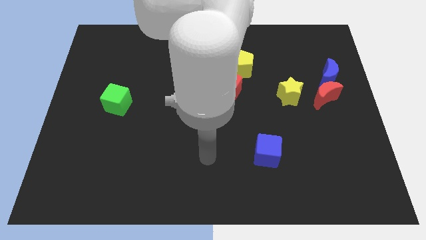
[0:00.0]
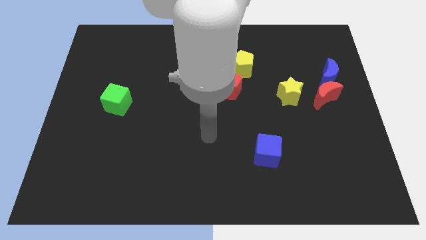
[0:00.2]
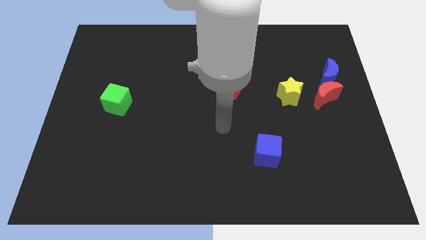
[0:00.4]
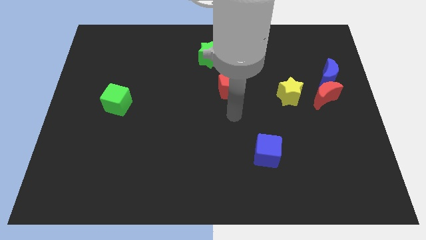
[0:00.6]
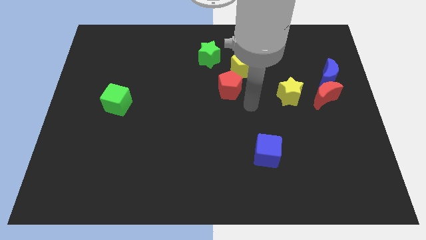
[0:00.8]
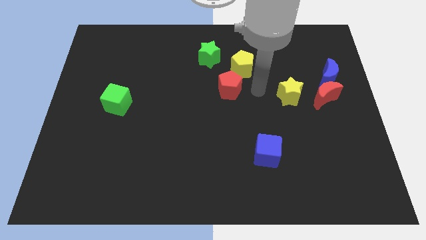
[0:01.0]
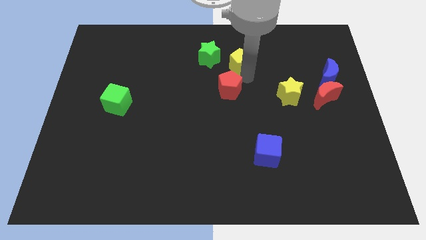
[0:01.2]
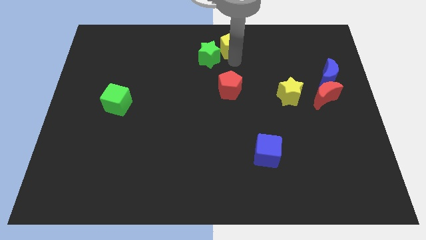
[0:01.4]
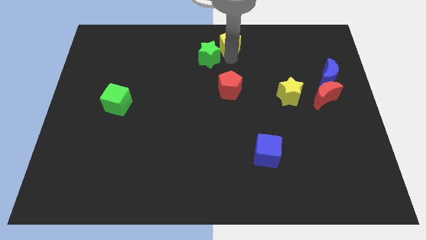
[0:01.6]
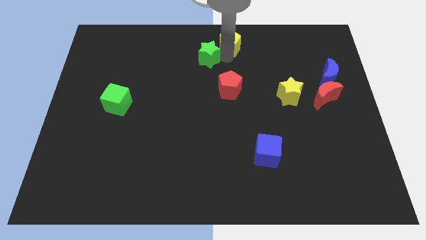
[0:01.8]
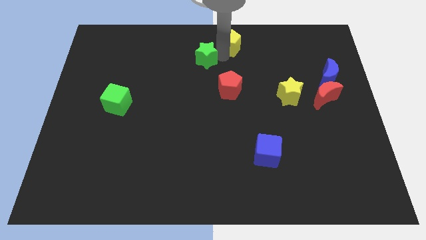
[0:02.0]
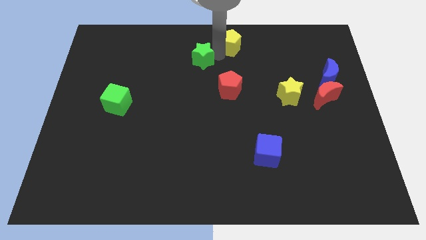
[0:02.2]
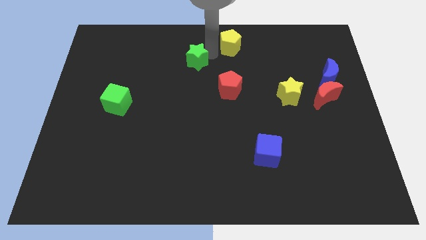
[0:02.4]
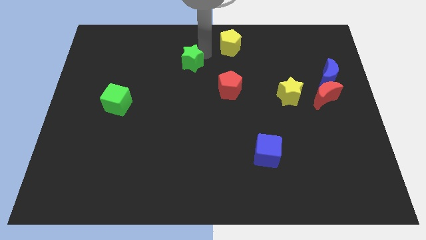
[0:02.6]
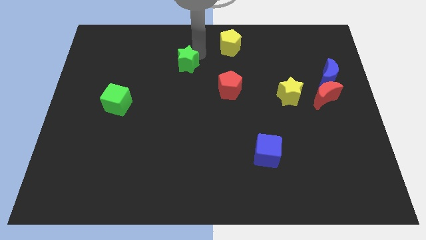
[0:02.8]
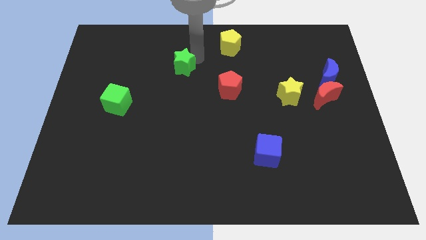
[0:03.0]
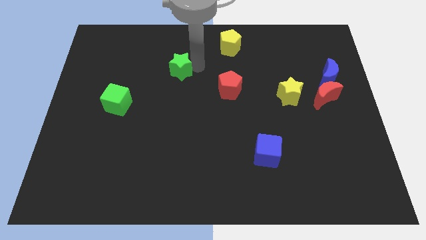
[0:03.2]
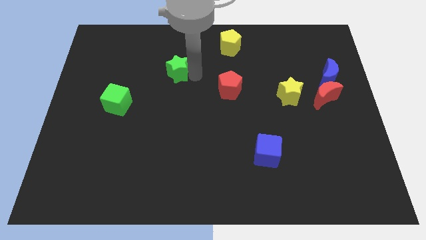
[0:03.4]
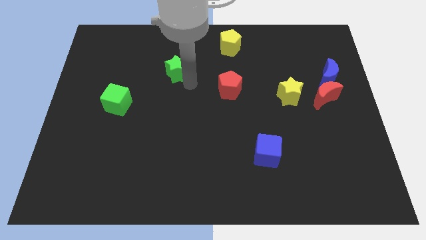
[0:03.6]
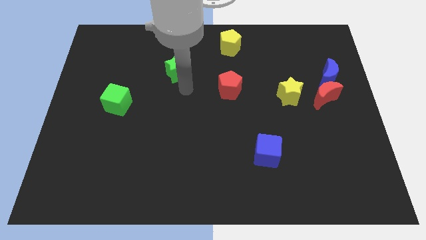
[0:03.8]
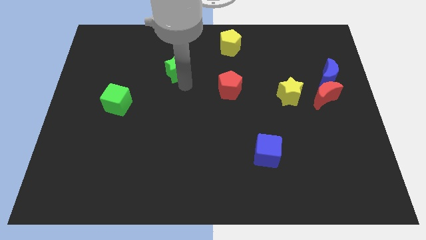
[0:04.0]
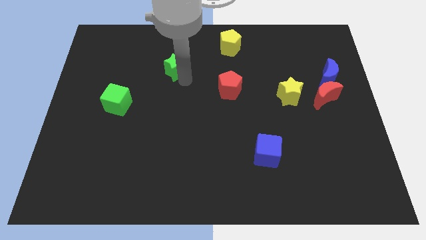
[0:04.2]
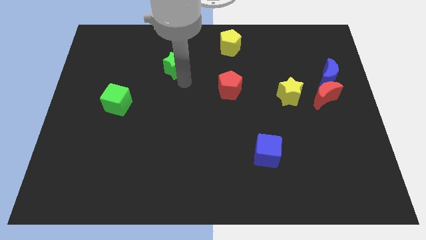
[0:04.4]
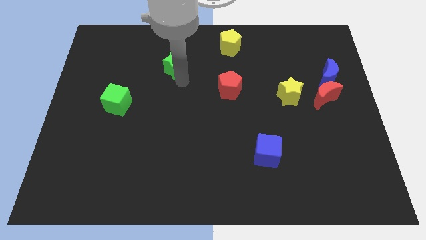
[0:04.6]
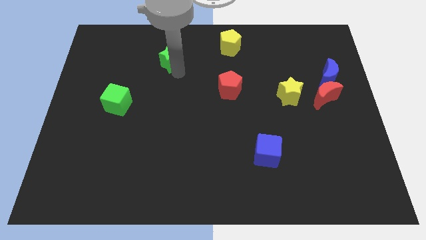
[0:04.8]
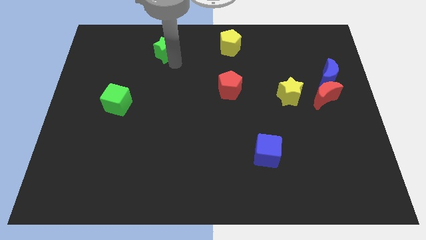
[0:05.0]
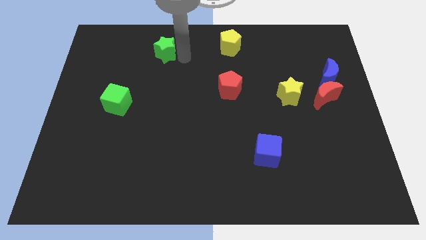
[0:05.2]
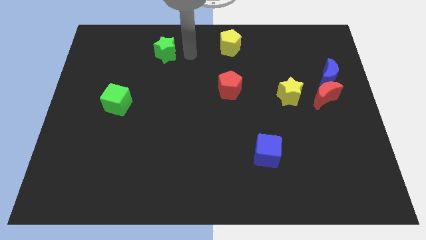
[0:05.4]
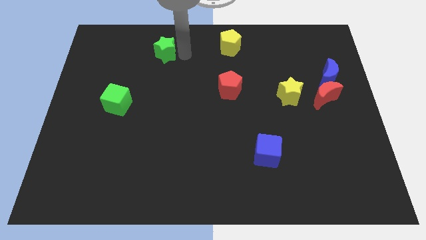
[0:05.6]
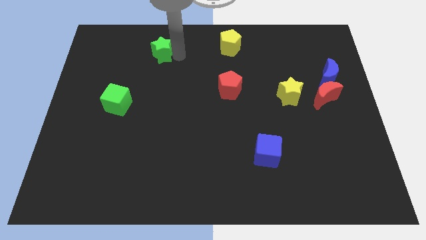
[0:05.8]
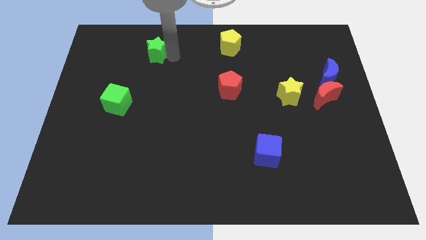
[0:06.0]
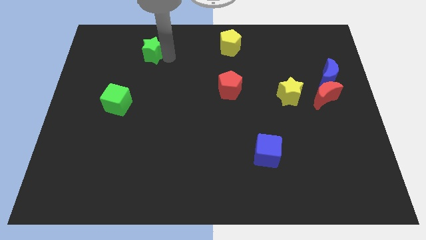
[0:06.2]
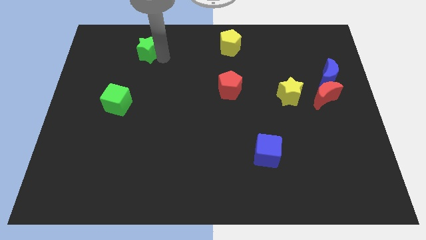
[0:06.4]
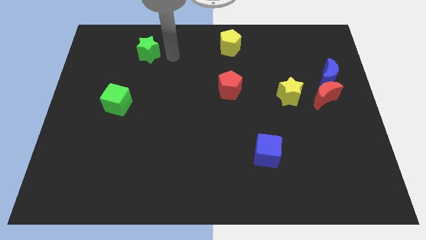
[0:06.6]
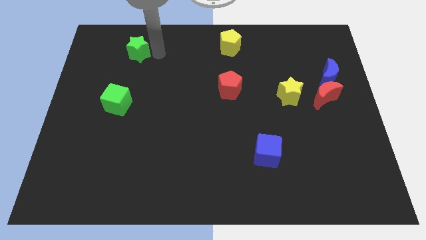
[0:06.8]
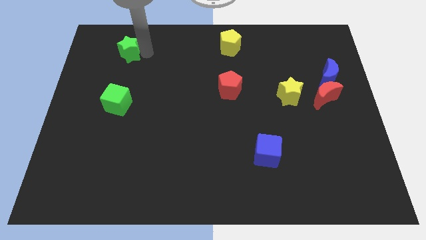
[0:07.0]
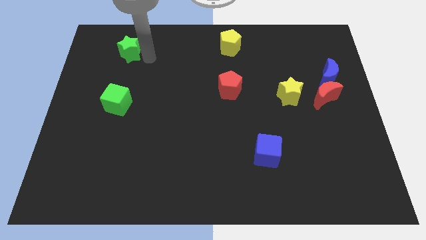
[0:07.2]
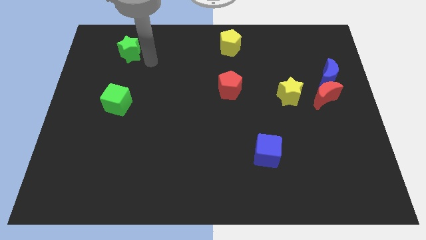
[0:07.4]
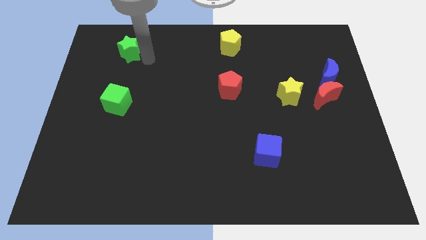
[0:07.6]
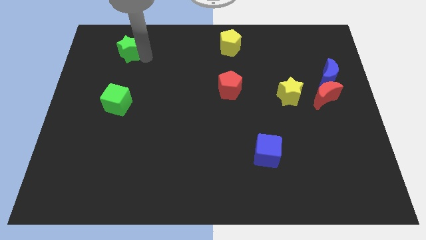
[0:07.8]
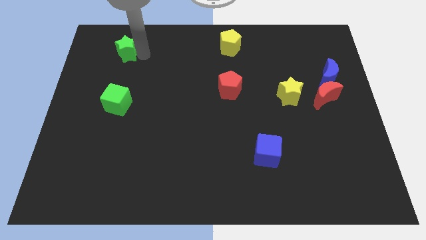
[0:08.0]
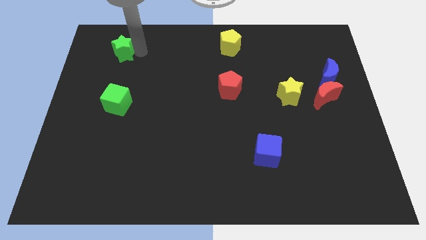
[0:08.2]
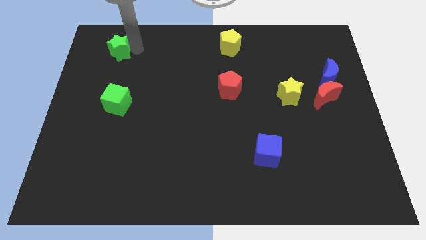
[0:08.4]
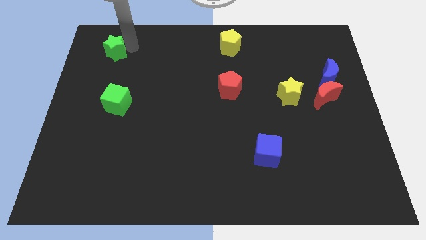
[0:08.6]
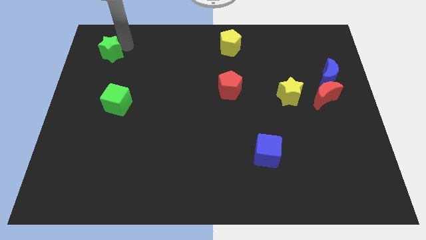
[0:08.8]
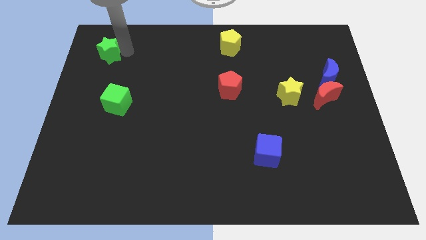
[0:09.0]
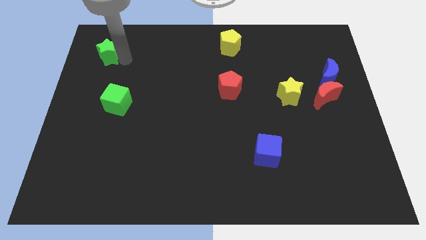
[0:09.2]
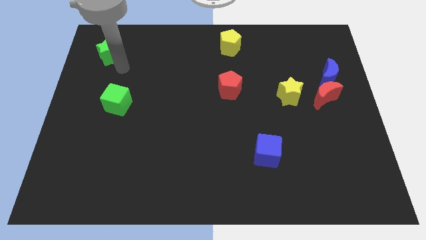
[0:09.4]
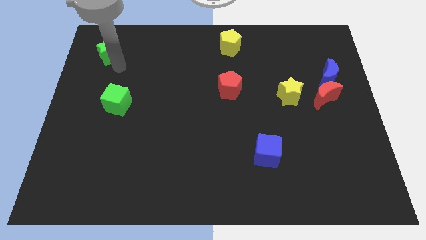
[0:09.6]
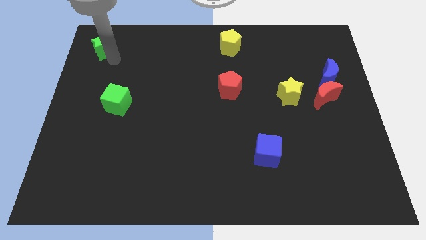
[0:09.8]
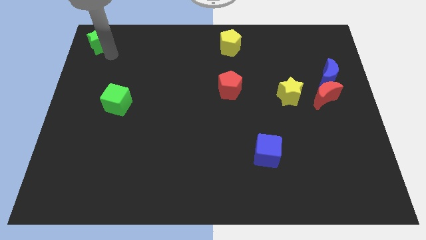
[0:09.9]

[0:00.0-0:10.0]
push the green star to the top left corner

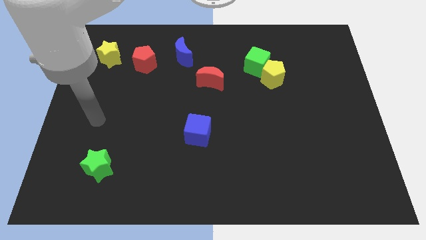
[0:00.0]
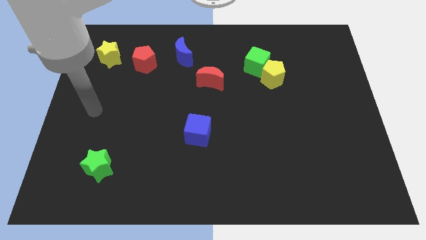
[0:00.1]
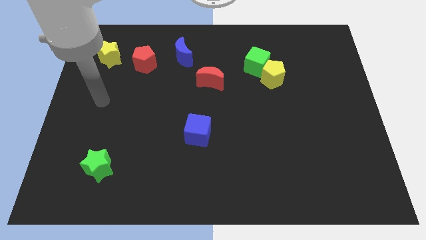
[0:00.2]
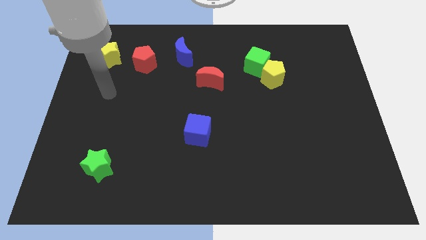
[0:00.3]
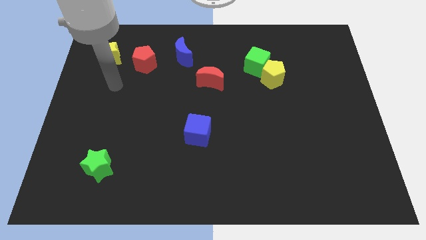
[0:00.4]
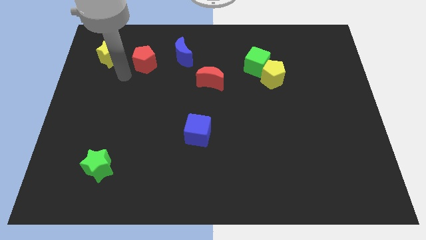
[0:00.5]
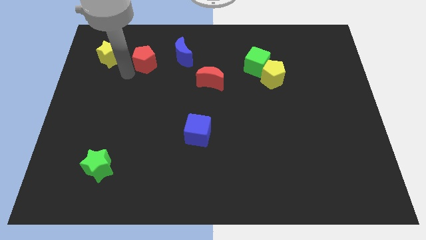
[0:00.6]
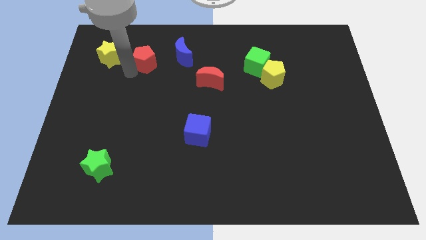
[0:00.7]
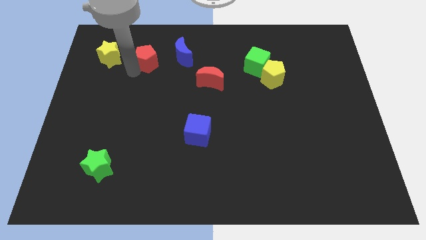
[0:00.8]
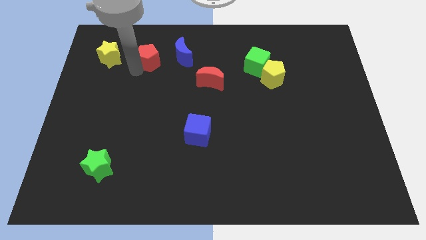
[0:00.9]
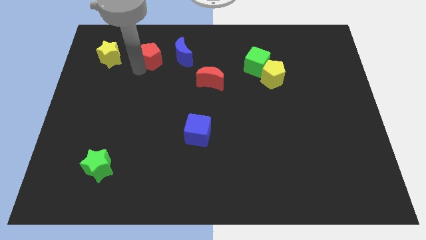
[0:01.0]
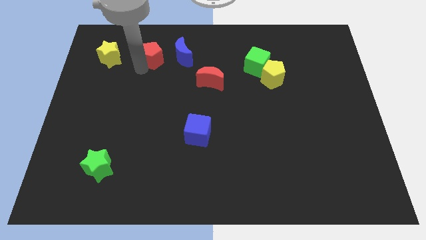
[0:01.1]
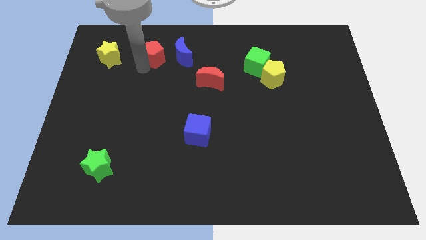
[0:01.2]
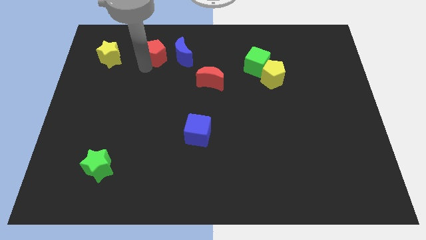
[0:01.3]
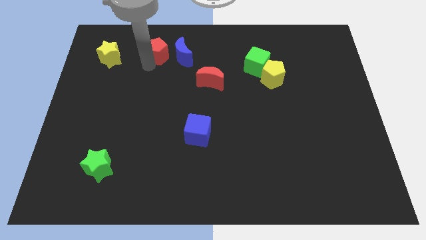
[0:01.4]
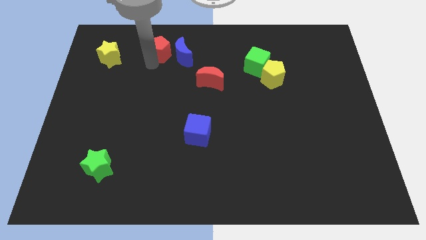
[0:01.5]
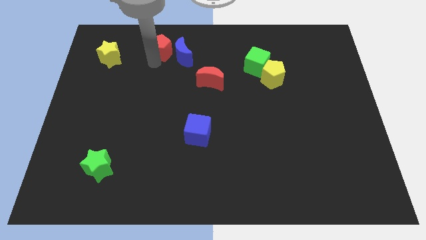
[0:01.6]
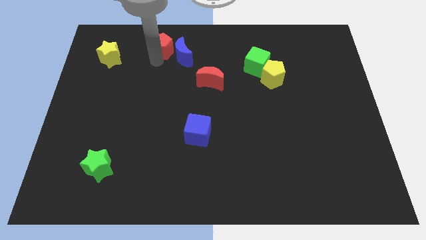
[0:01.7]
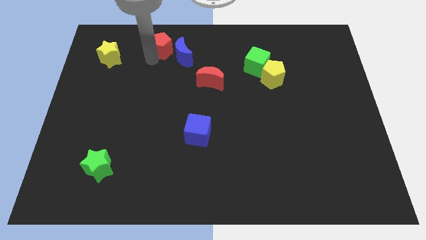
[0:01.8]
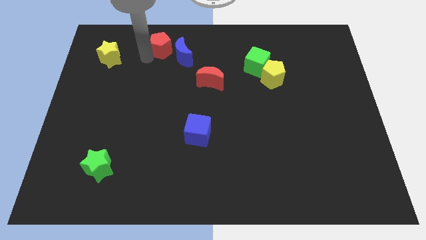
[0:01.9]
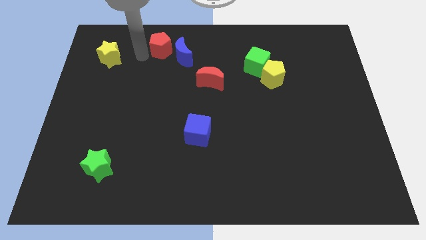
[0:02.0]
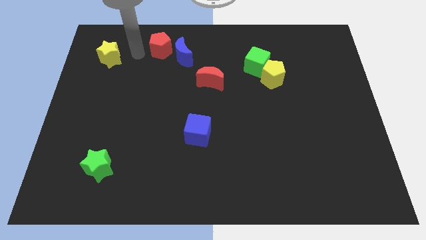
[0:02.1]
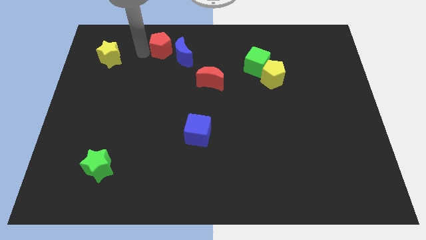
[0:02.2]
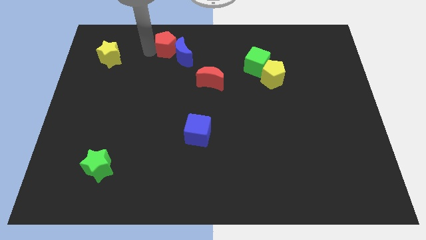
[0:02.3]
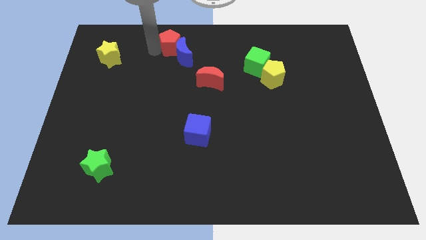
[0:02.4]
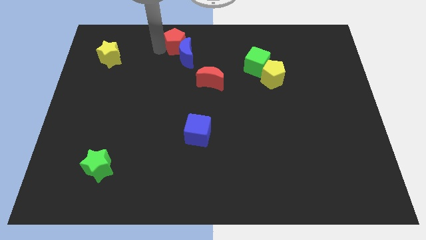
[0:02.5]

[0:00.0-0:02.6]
put the red pentagon to the towards your base
